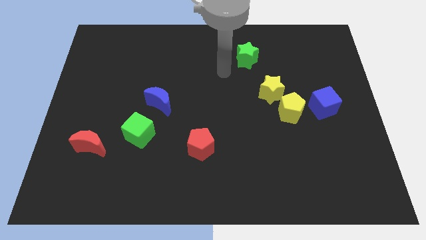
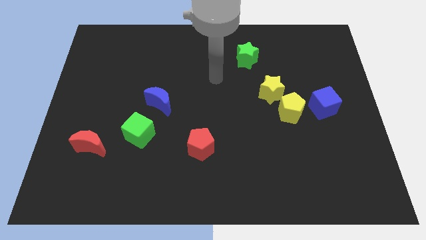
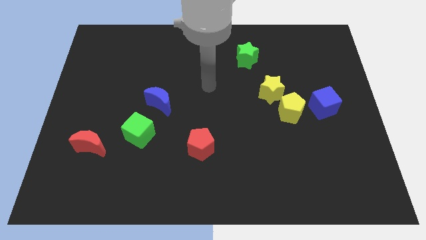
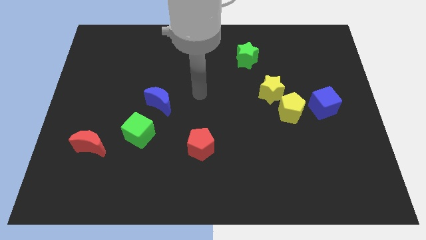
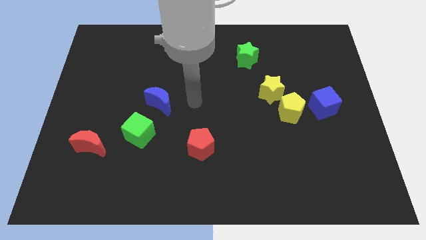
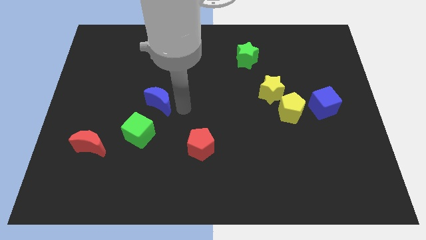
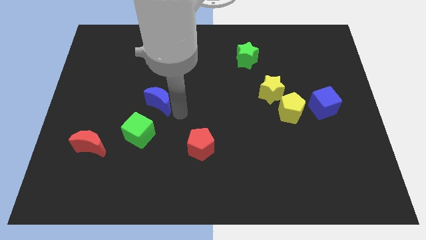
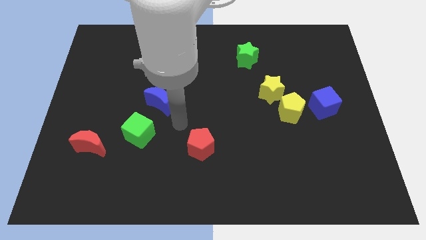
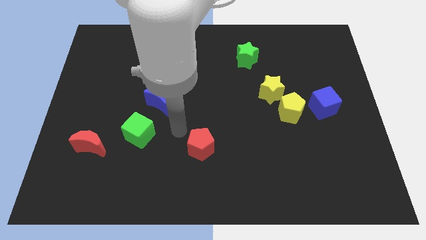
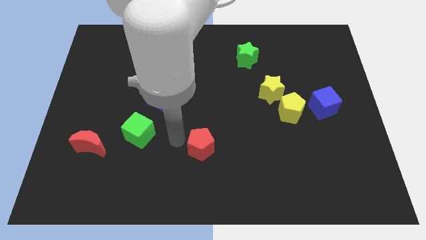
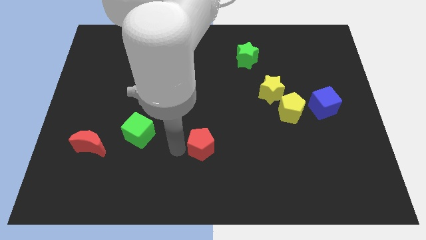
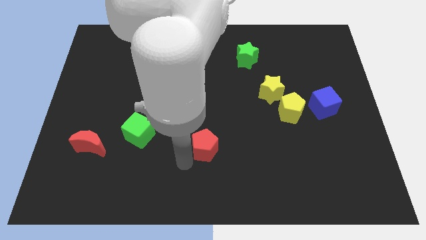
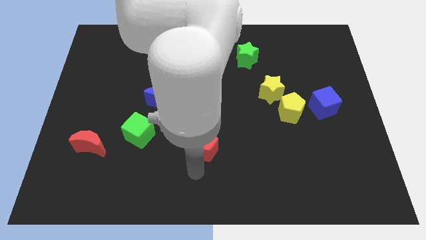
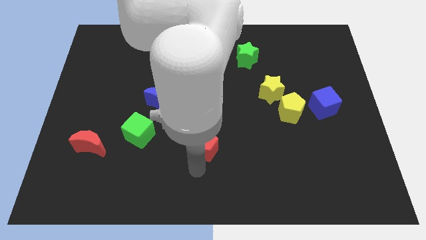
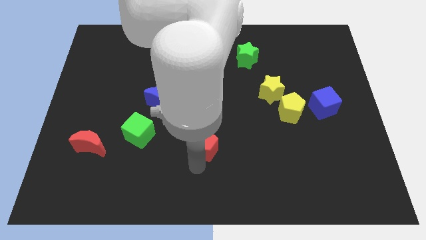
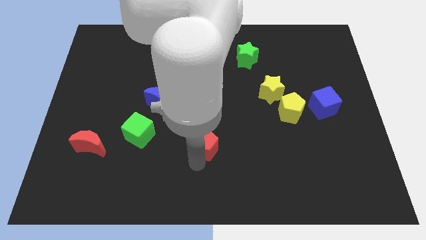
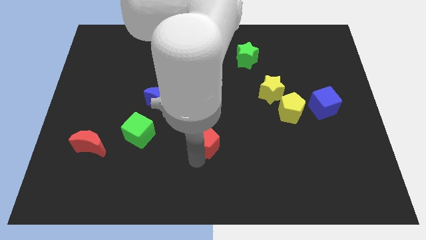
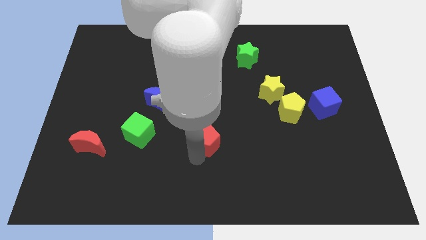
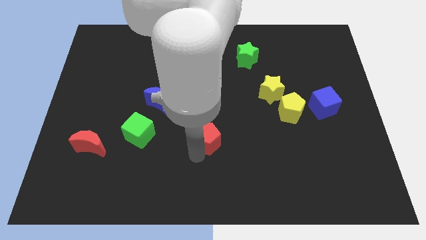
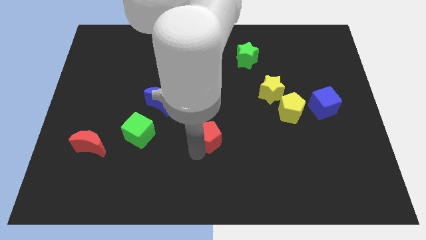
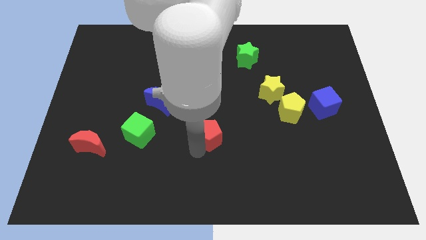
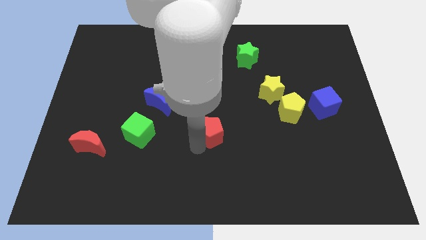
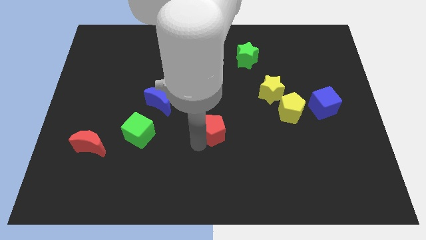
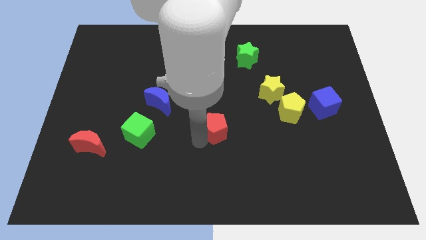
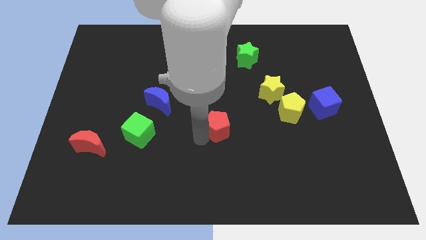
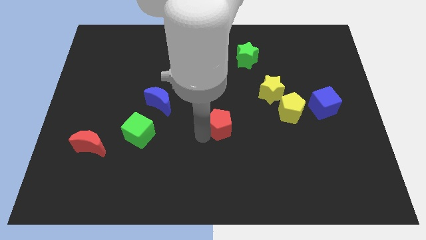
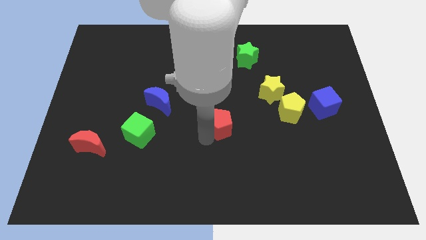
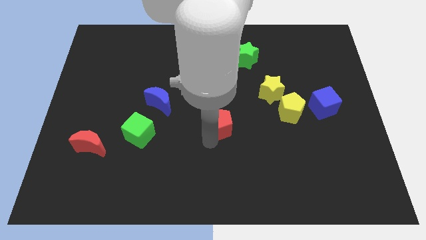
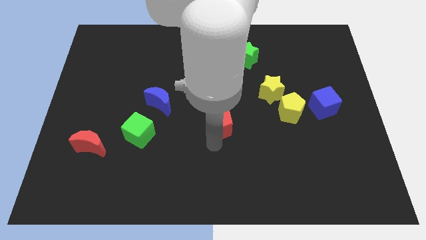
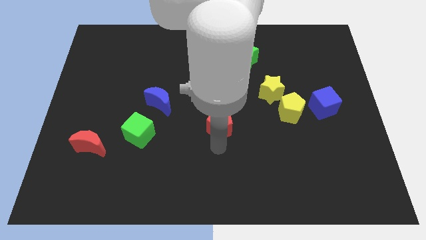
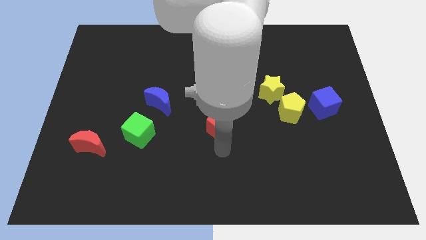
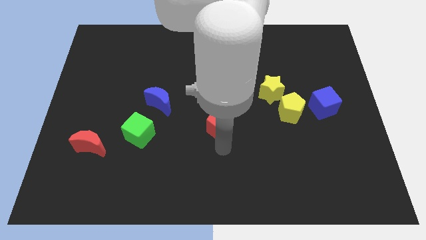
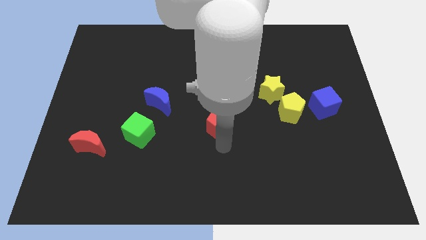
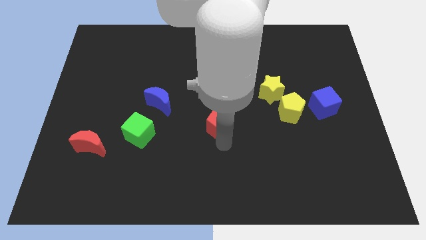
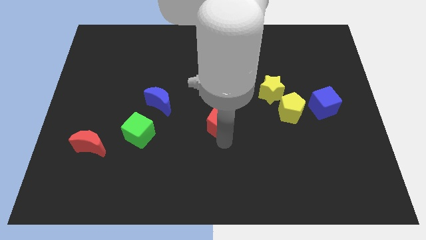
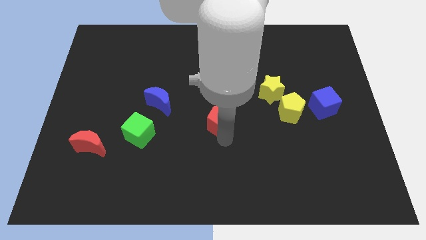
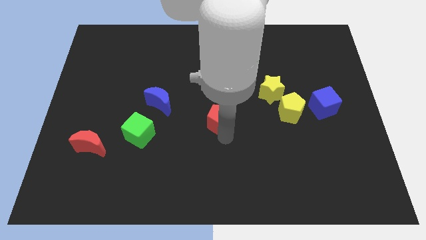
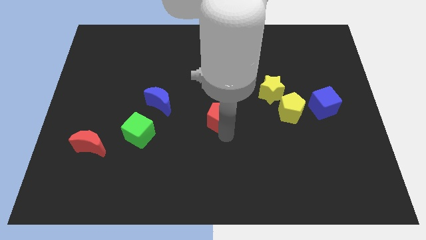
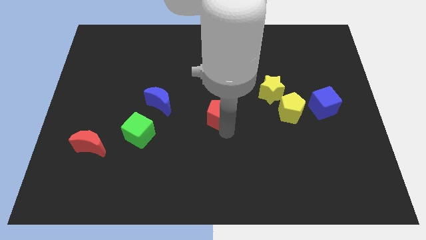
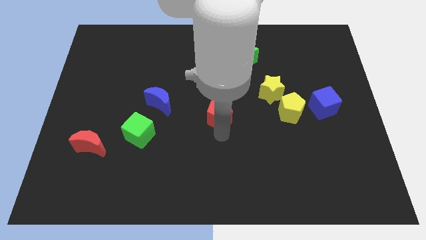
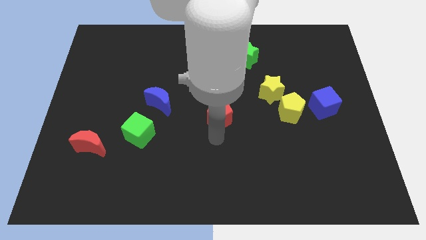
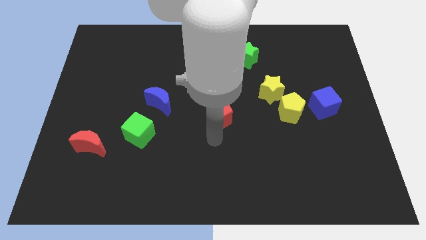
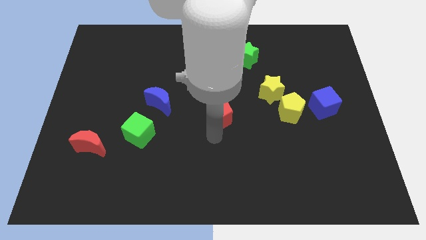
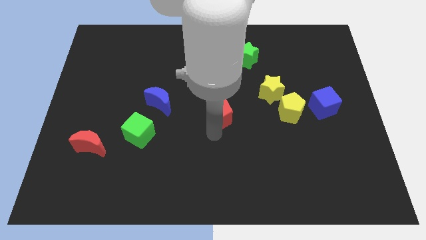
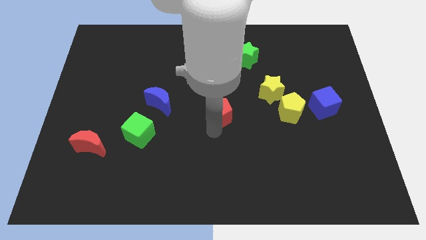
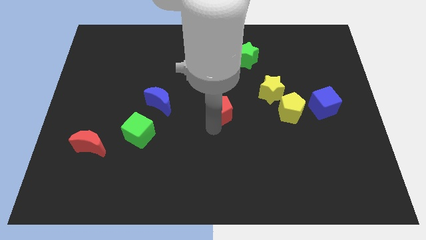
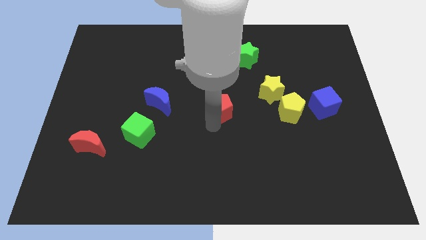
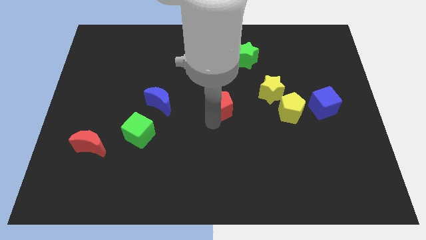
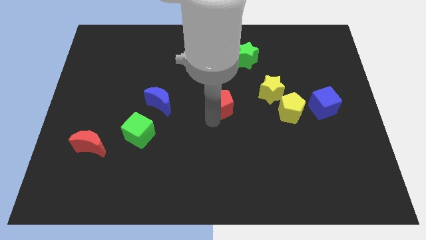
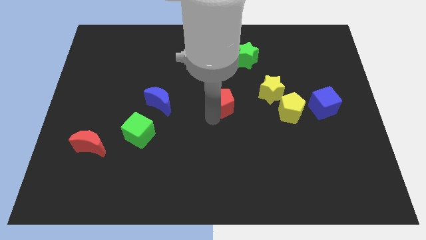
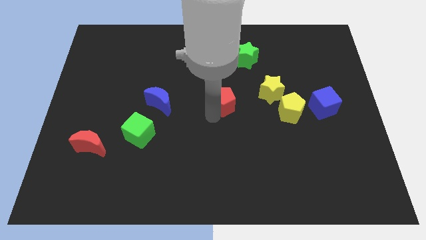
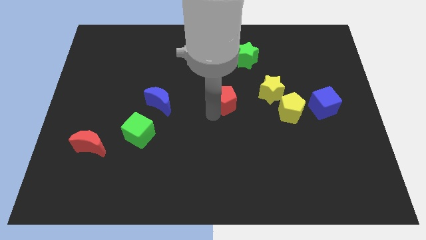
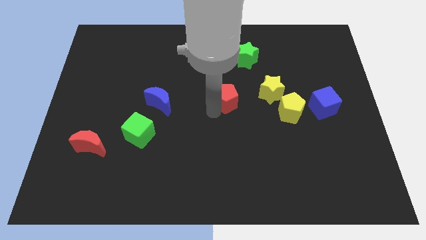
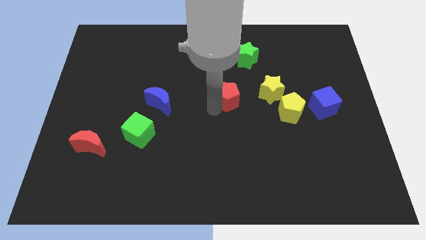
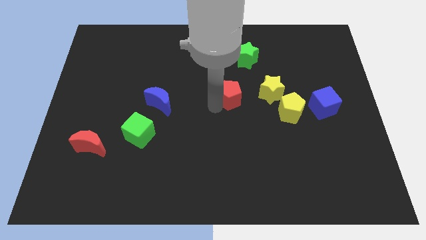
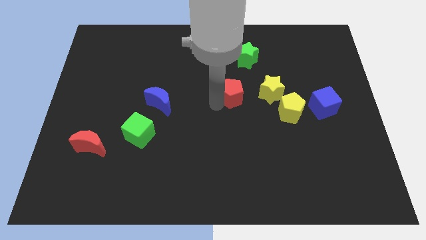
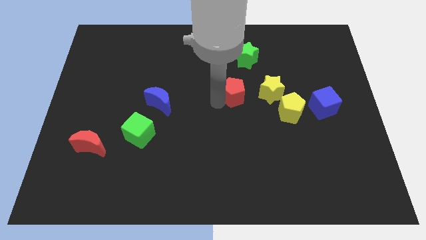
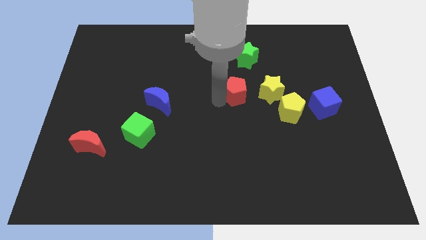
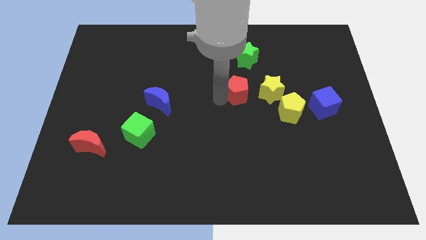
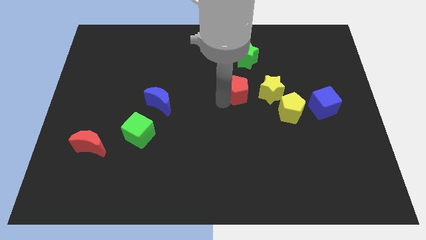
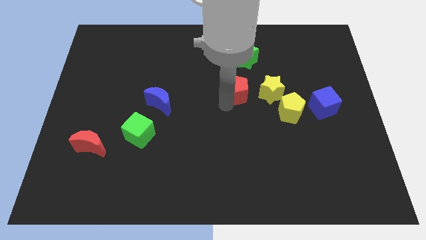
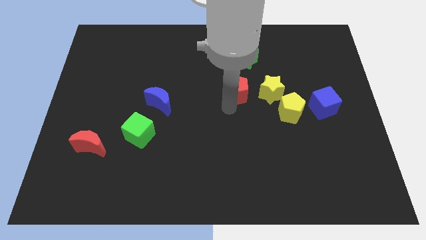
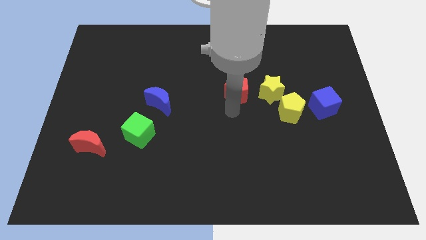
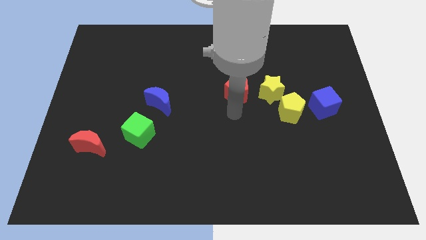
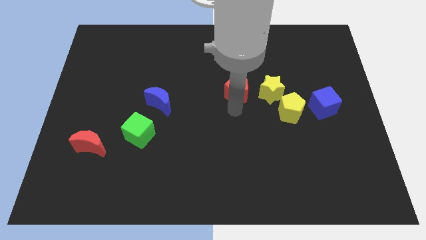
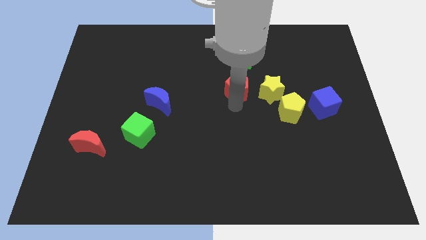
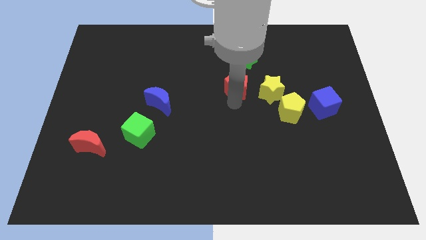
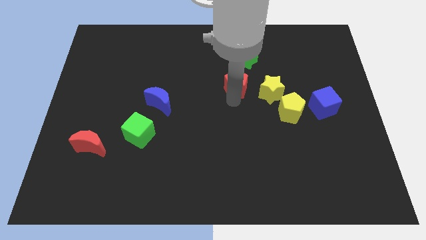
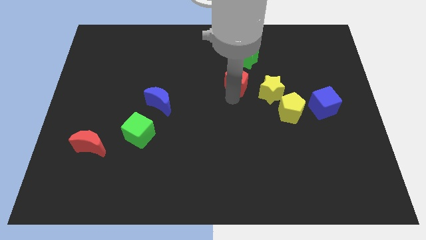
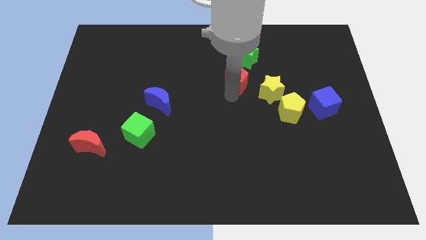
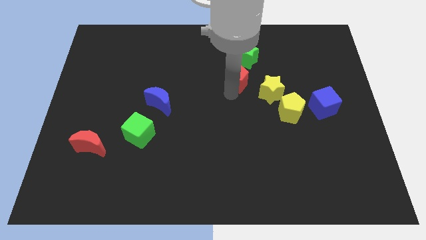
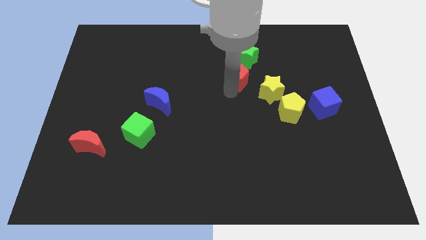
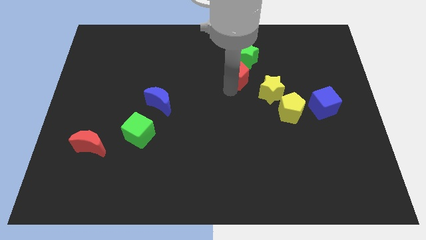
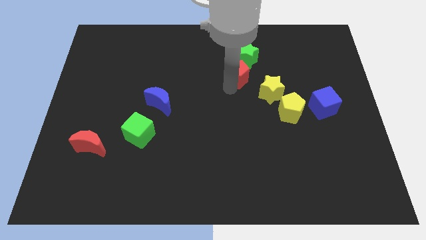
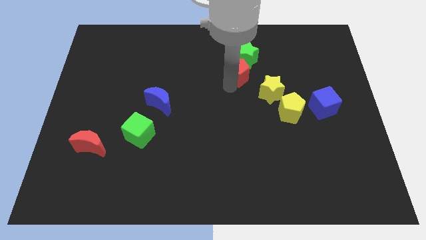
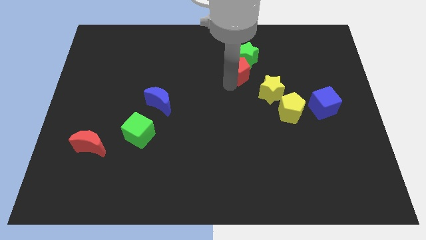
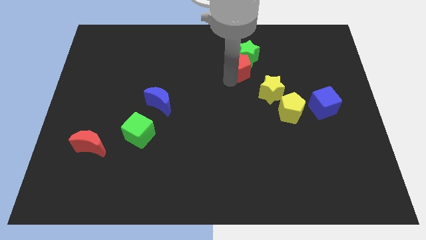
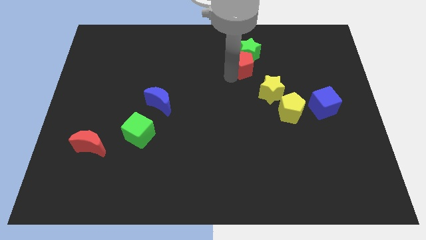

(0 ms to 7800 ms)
slide the red pentagon upwards and right

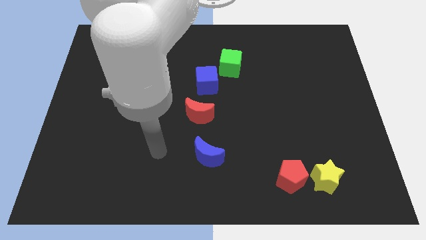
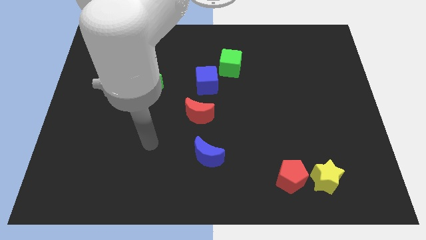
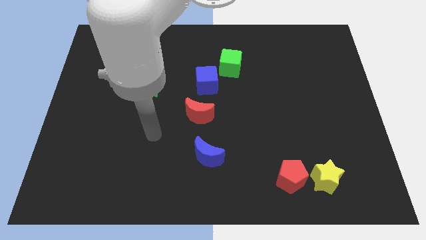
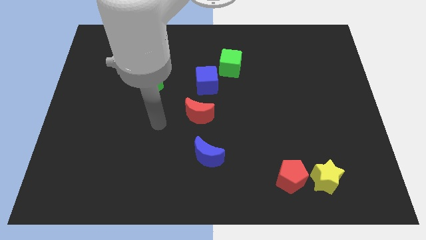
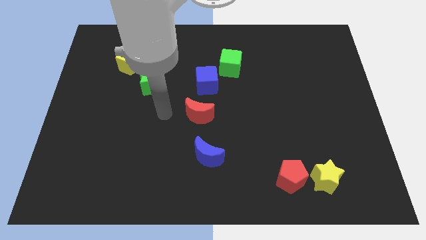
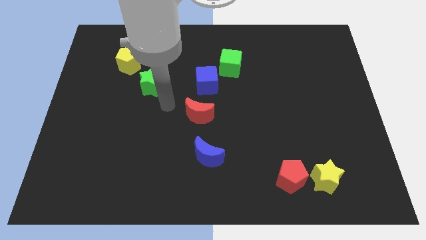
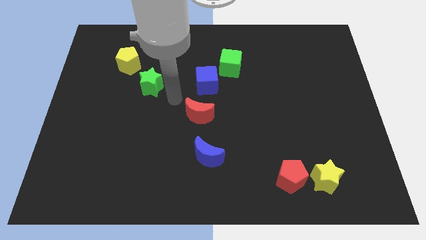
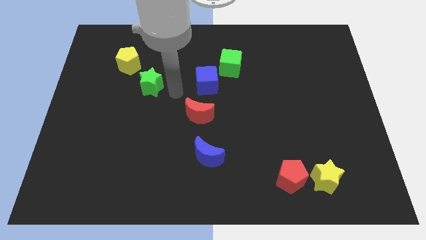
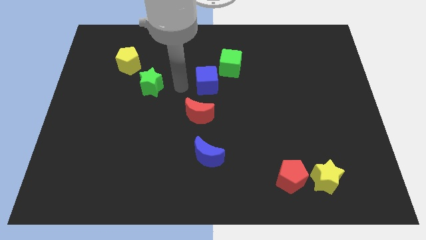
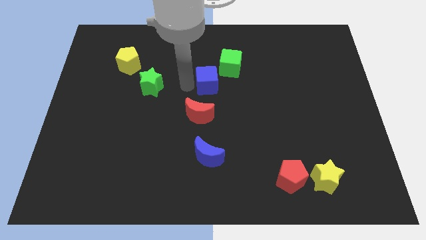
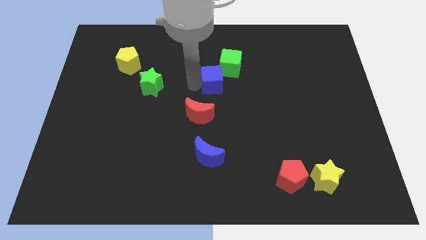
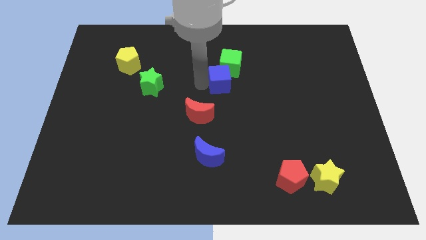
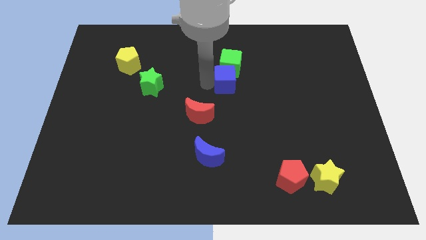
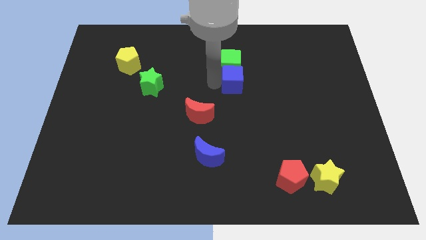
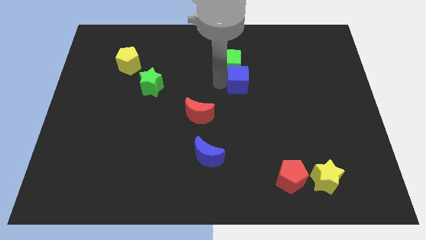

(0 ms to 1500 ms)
push the blue cube to the right slightly
